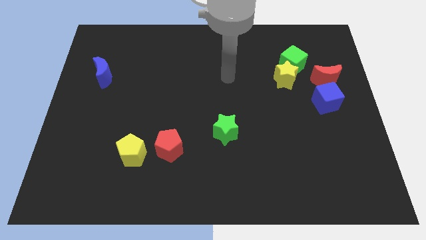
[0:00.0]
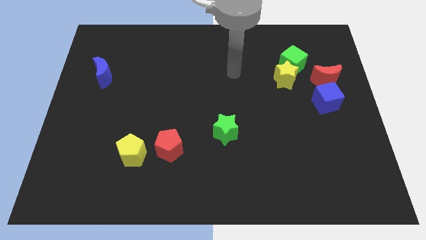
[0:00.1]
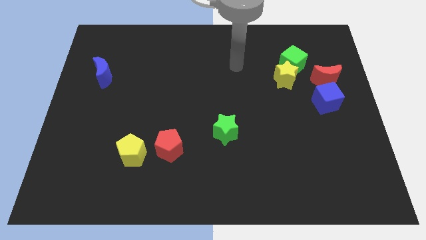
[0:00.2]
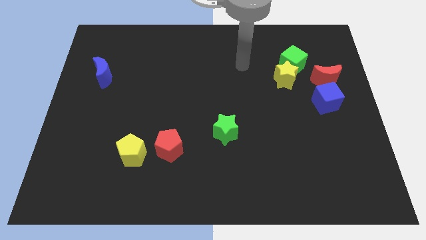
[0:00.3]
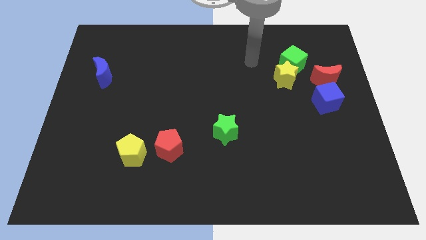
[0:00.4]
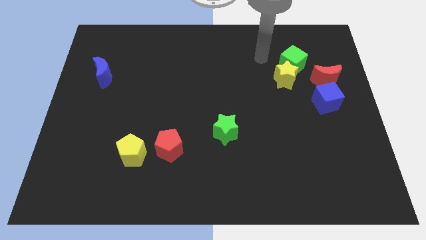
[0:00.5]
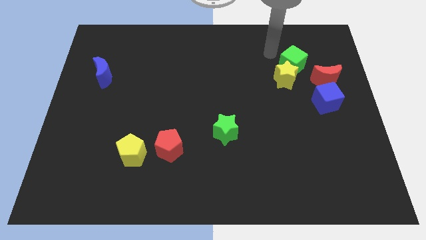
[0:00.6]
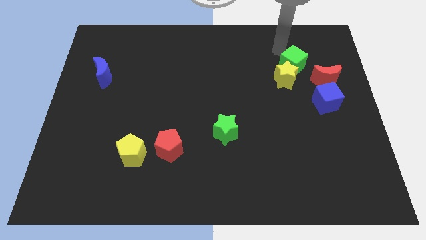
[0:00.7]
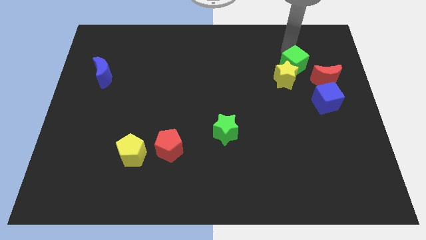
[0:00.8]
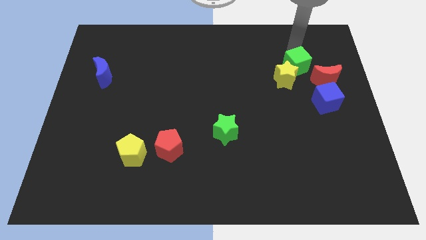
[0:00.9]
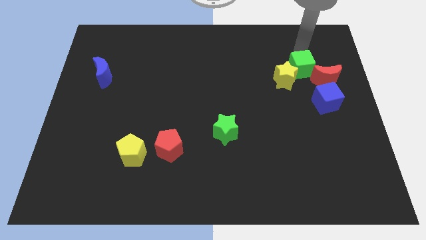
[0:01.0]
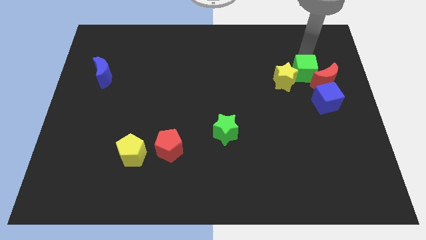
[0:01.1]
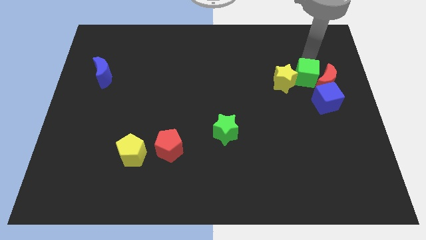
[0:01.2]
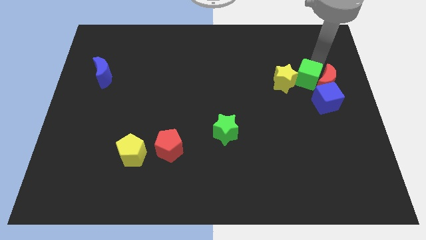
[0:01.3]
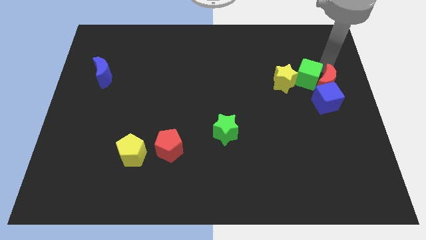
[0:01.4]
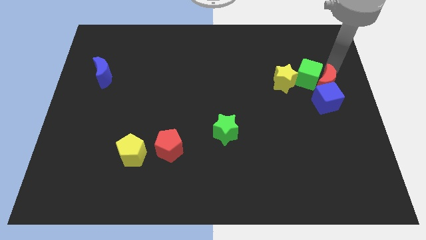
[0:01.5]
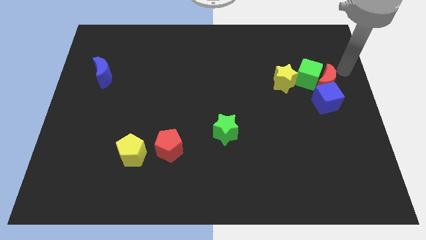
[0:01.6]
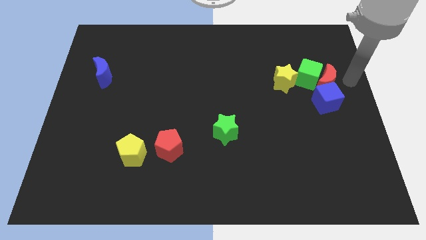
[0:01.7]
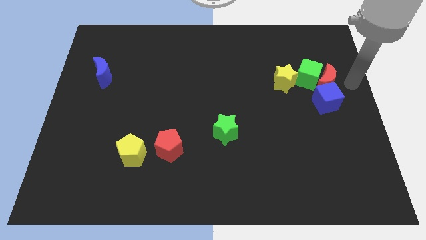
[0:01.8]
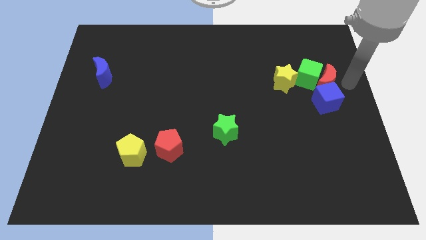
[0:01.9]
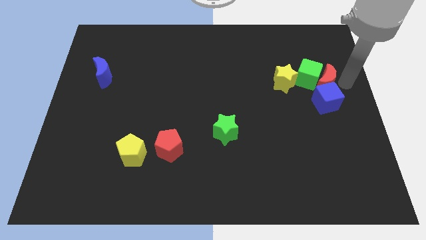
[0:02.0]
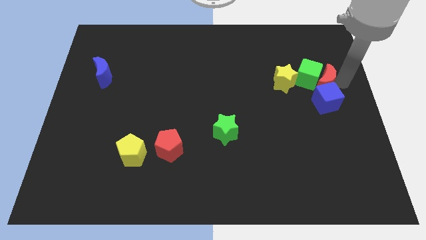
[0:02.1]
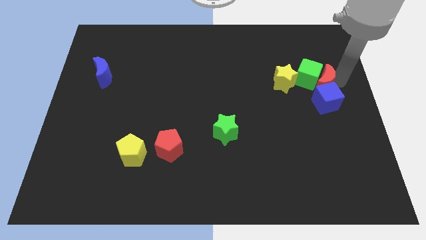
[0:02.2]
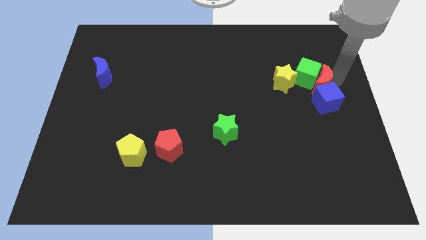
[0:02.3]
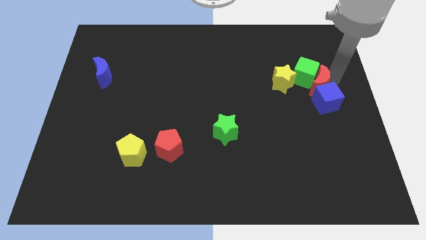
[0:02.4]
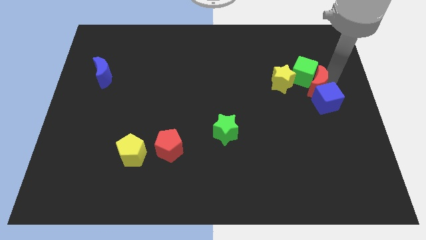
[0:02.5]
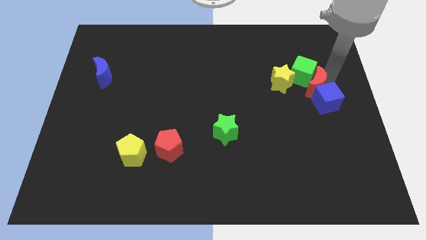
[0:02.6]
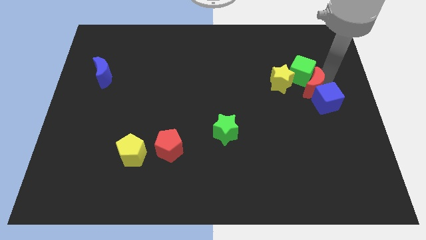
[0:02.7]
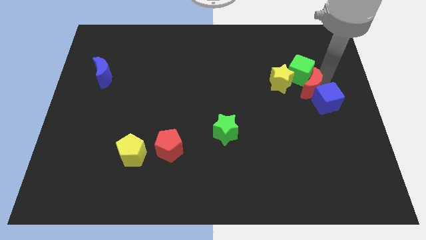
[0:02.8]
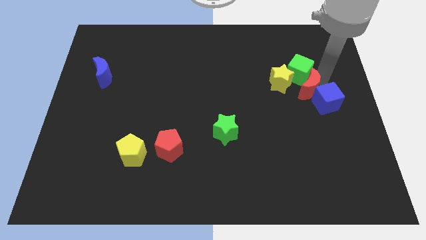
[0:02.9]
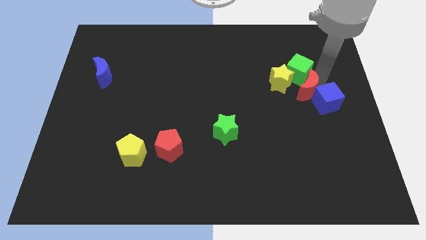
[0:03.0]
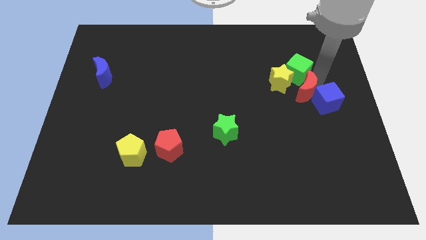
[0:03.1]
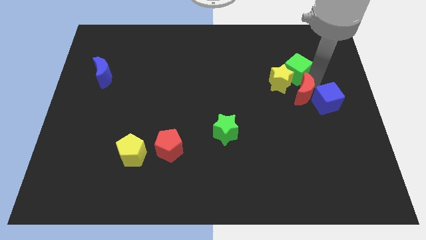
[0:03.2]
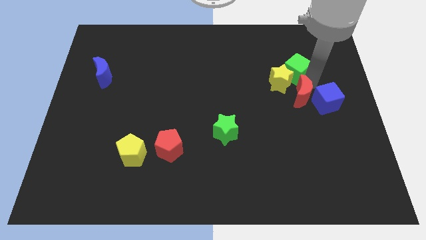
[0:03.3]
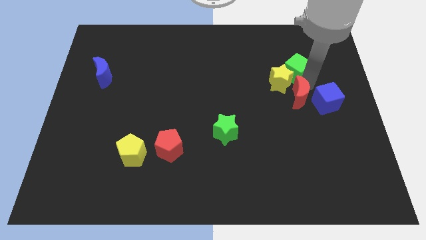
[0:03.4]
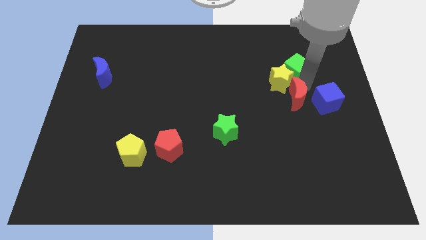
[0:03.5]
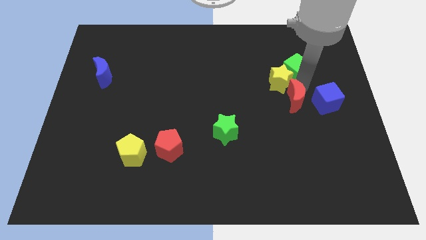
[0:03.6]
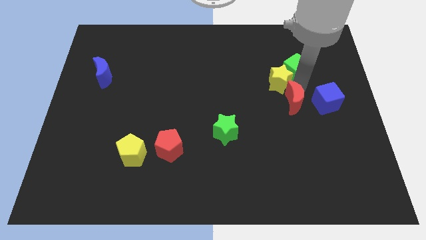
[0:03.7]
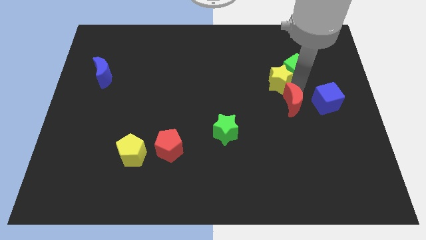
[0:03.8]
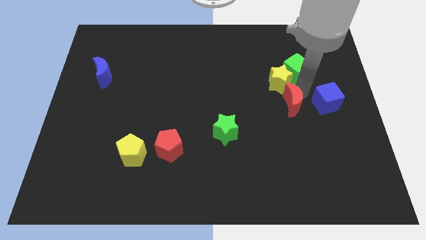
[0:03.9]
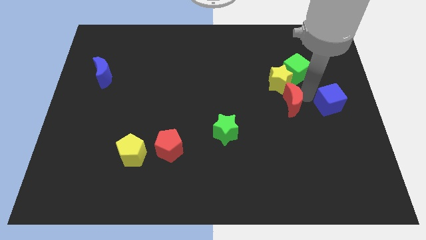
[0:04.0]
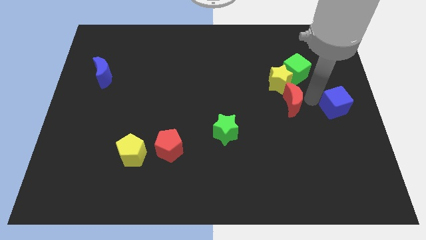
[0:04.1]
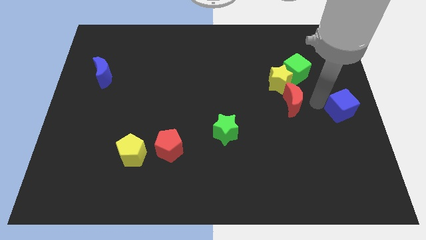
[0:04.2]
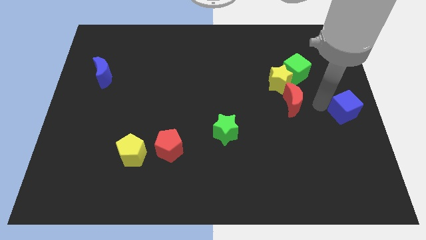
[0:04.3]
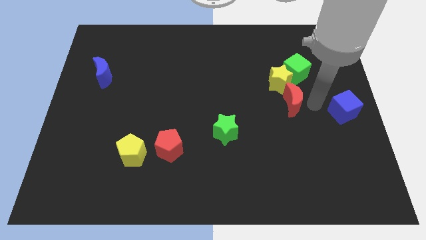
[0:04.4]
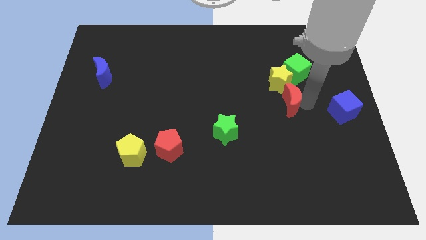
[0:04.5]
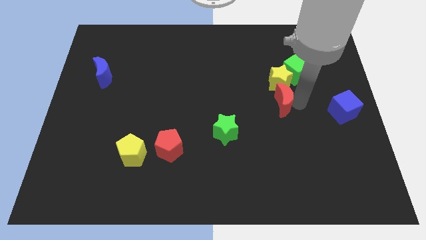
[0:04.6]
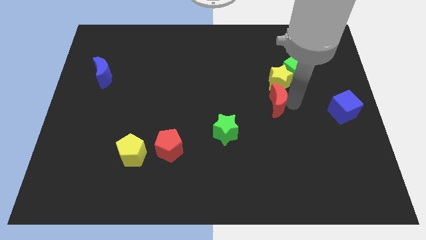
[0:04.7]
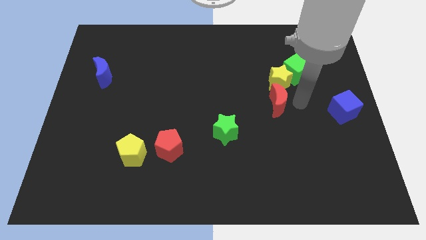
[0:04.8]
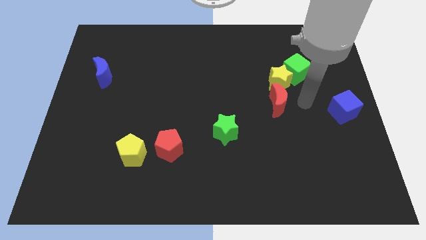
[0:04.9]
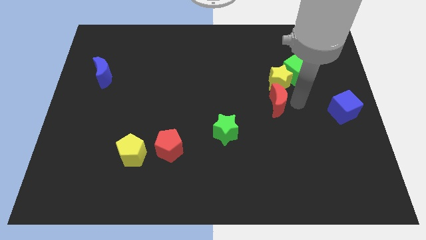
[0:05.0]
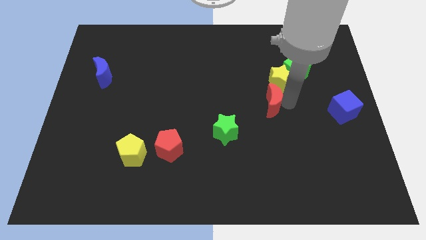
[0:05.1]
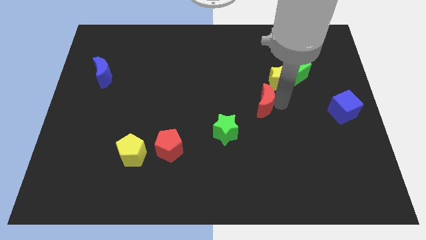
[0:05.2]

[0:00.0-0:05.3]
move the red moon to the middle of the board

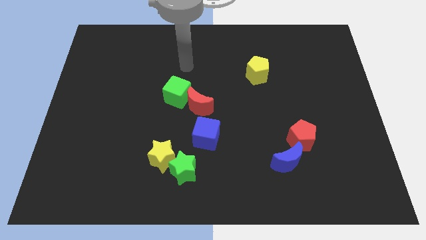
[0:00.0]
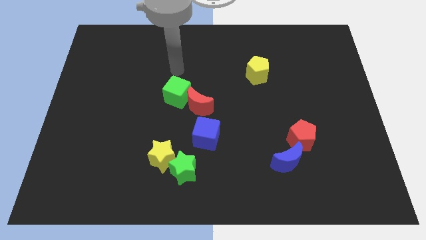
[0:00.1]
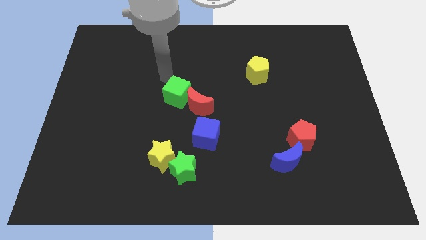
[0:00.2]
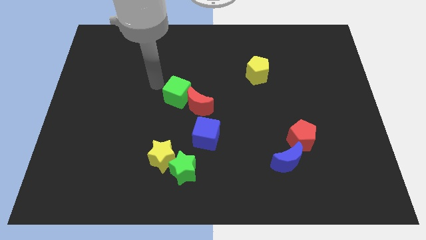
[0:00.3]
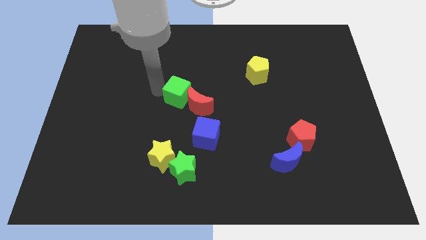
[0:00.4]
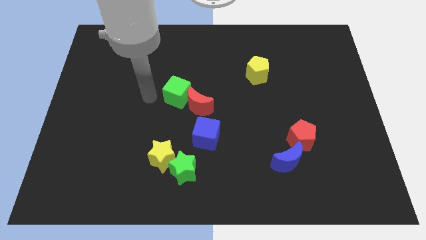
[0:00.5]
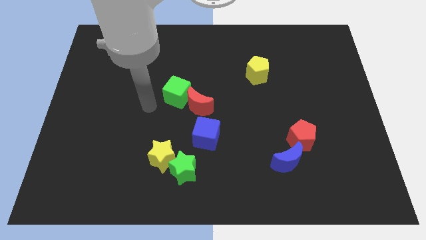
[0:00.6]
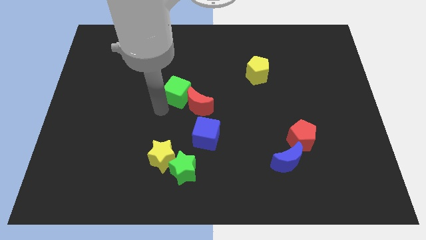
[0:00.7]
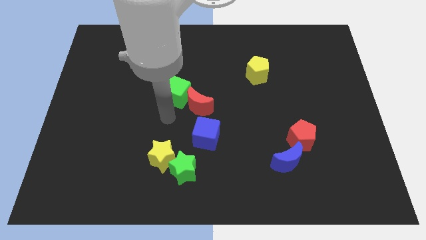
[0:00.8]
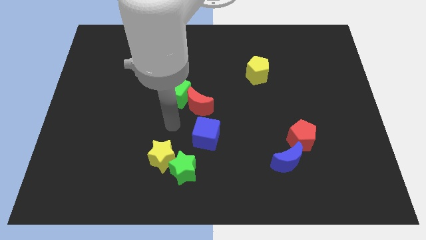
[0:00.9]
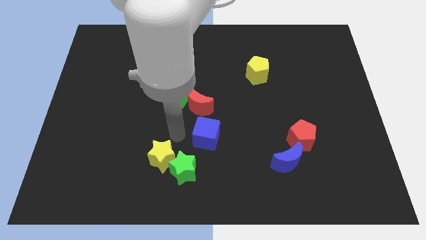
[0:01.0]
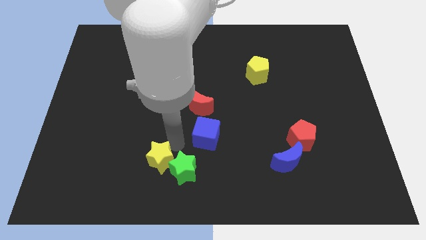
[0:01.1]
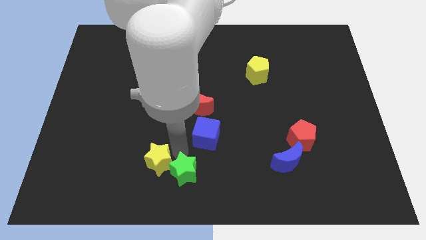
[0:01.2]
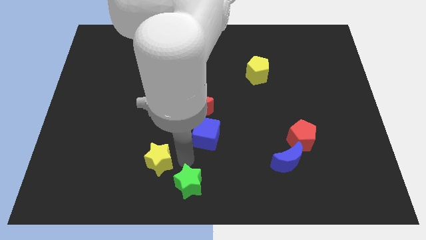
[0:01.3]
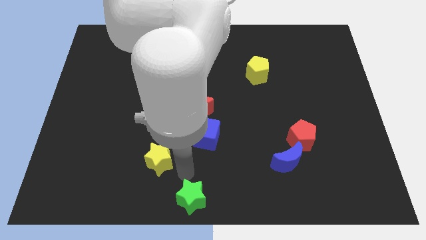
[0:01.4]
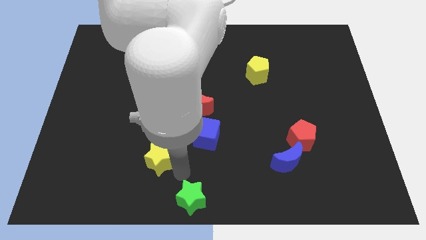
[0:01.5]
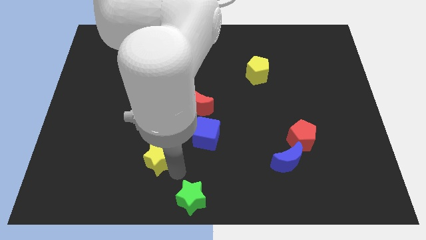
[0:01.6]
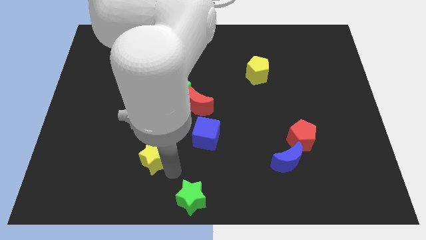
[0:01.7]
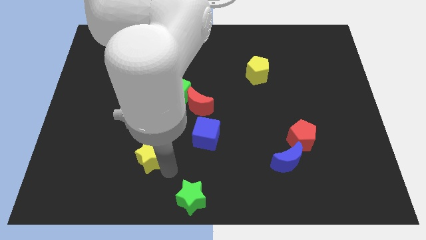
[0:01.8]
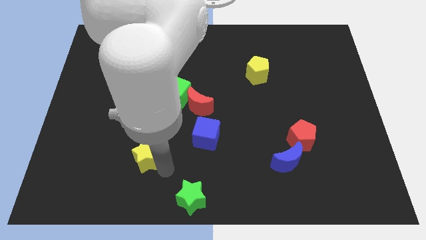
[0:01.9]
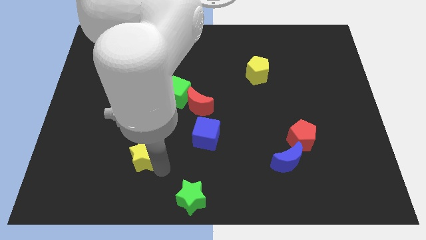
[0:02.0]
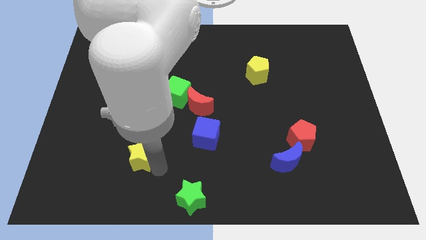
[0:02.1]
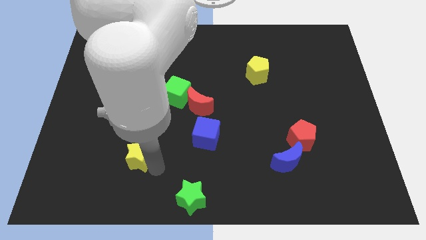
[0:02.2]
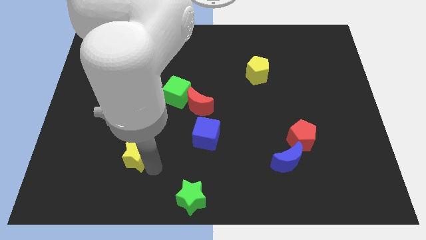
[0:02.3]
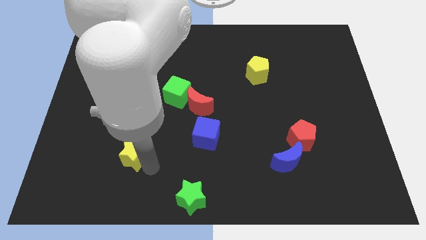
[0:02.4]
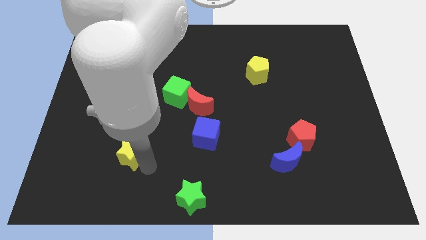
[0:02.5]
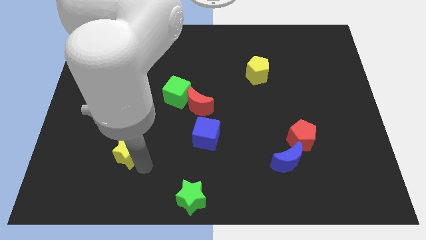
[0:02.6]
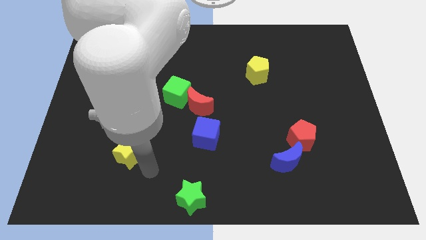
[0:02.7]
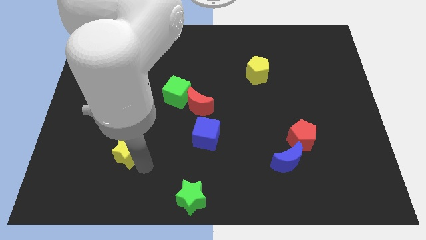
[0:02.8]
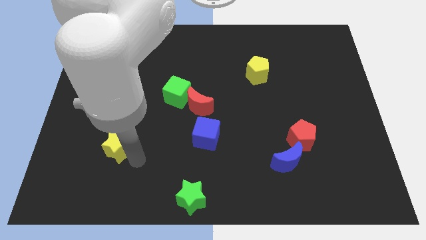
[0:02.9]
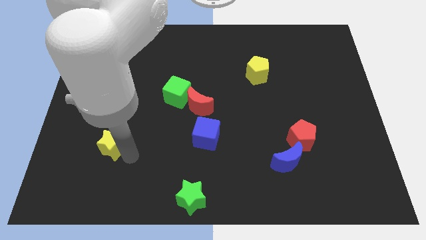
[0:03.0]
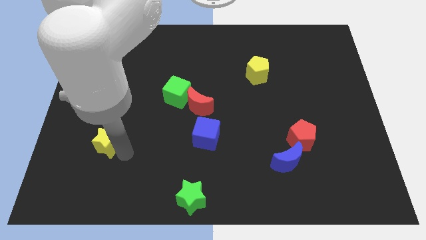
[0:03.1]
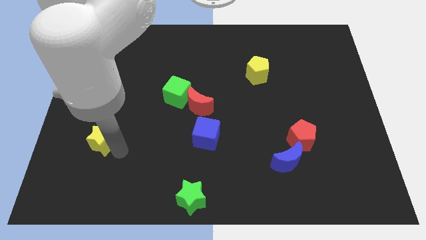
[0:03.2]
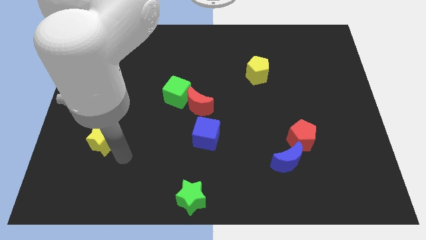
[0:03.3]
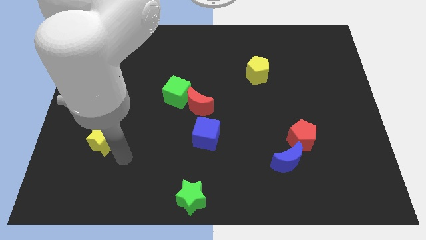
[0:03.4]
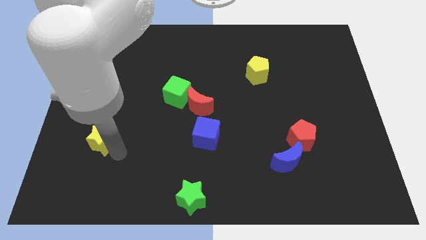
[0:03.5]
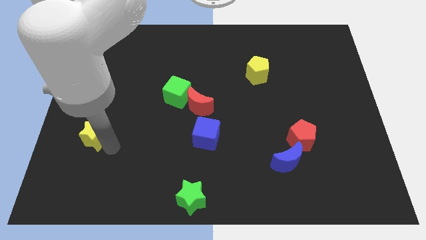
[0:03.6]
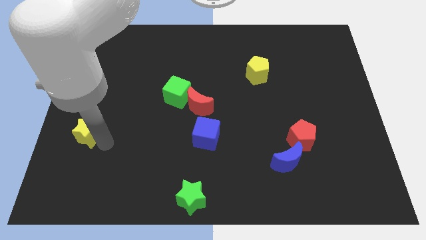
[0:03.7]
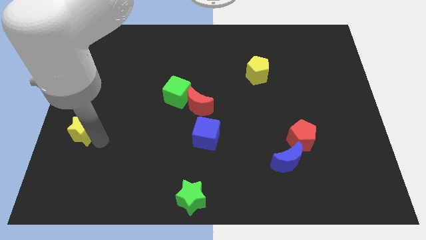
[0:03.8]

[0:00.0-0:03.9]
move the yellow star to the left side
